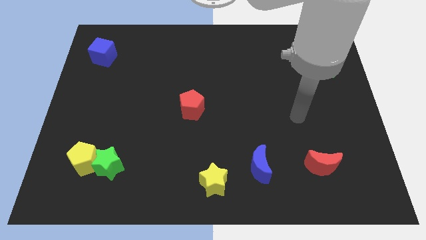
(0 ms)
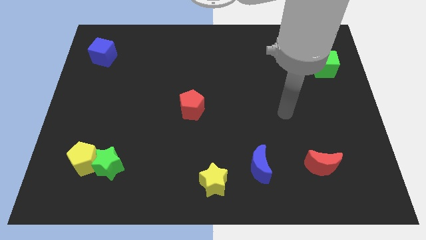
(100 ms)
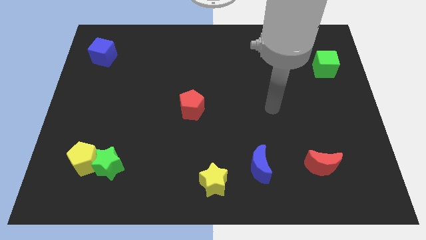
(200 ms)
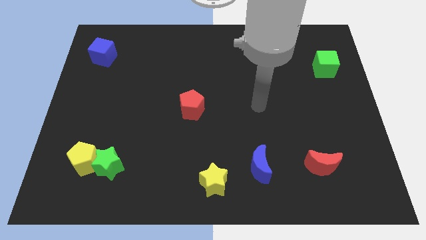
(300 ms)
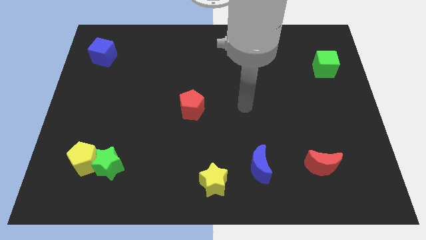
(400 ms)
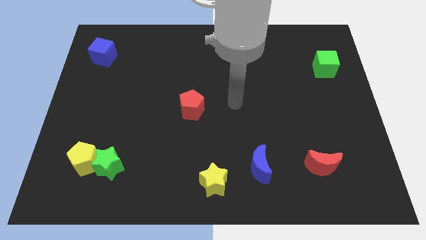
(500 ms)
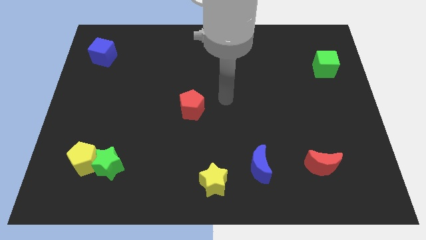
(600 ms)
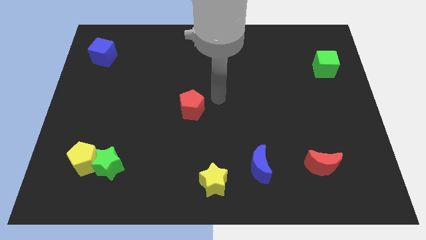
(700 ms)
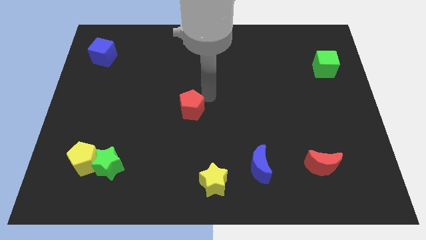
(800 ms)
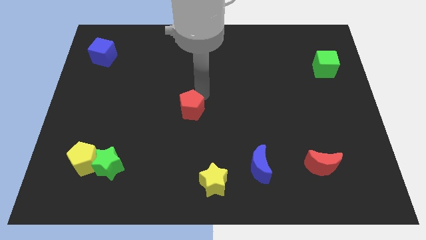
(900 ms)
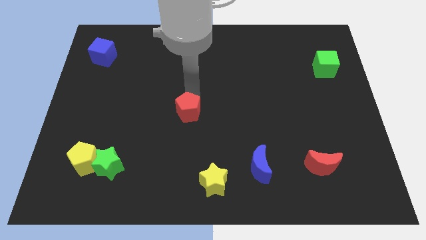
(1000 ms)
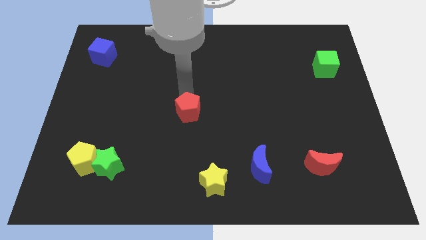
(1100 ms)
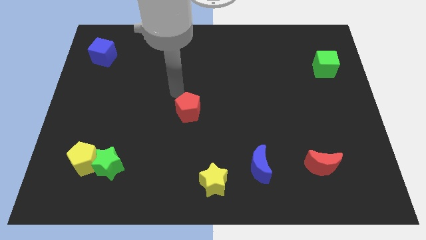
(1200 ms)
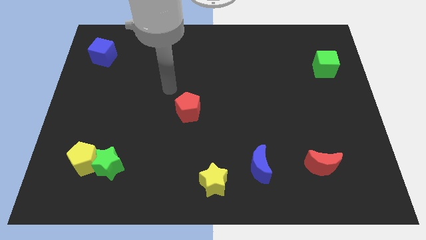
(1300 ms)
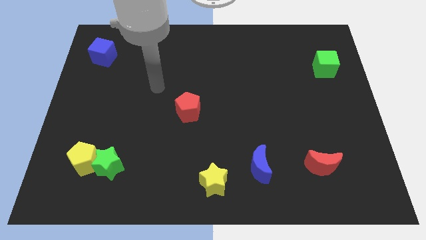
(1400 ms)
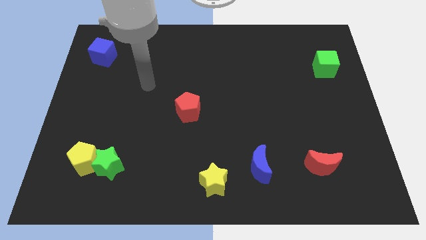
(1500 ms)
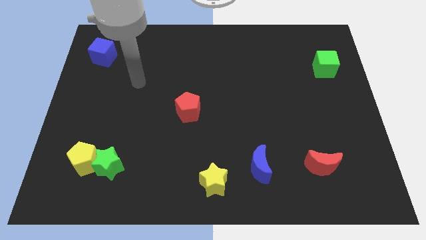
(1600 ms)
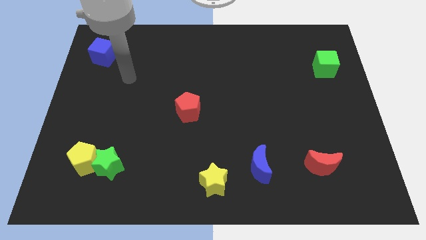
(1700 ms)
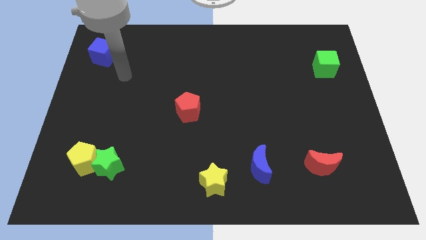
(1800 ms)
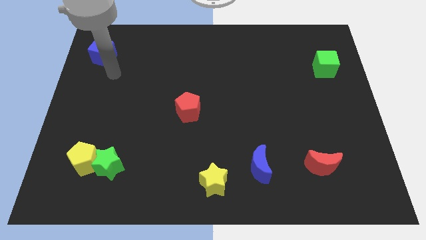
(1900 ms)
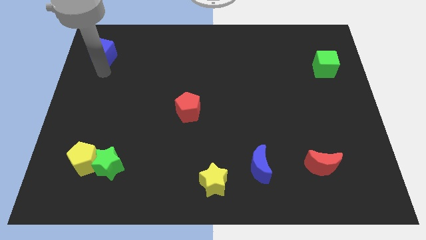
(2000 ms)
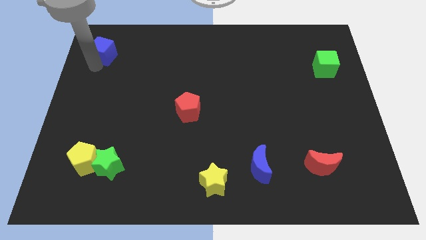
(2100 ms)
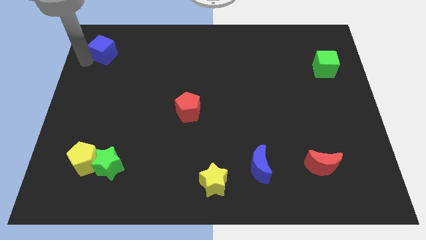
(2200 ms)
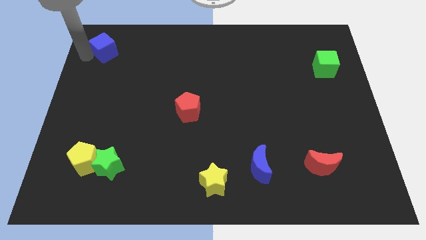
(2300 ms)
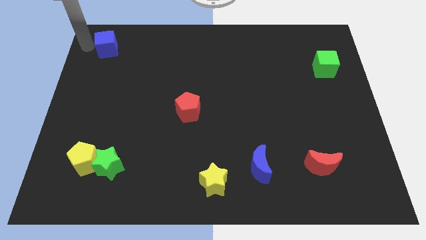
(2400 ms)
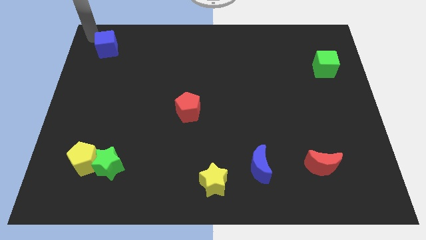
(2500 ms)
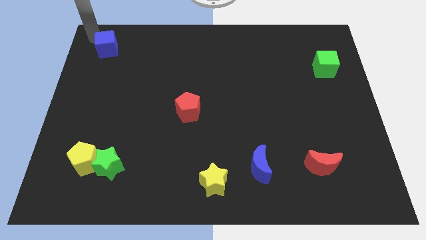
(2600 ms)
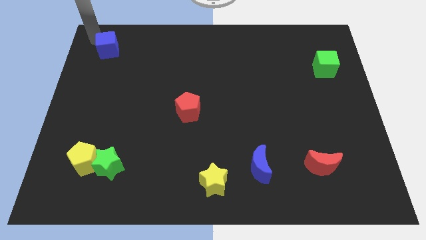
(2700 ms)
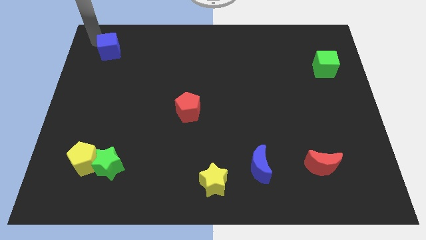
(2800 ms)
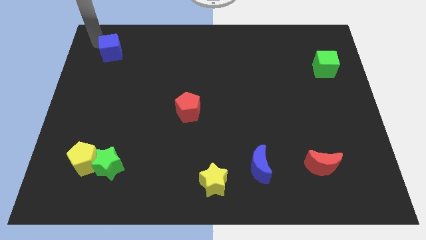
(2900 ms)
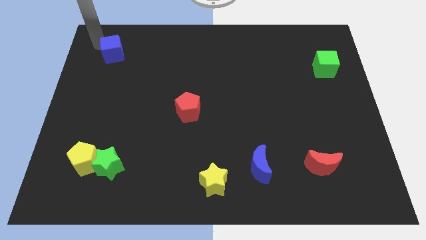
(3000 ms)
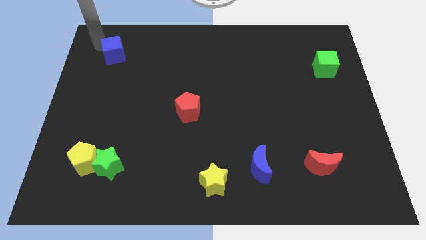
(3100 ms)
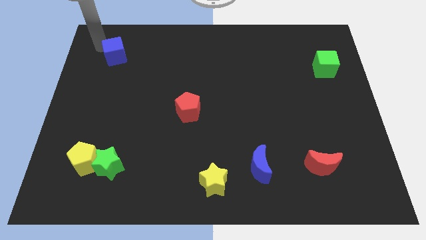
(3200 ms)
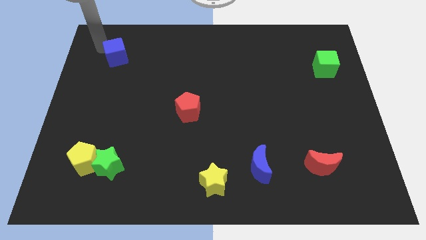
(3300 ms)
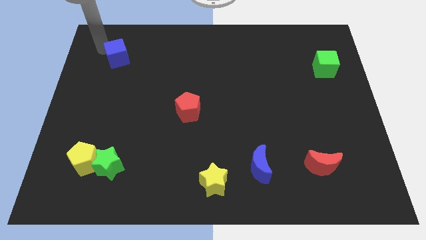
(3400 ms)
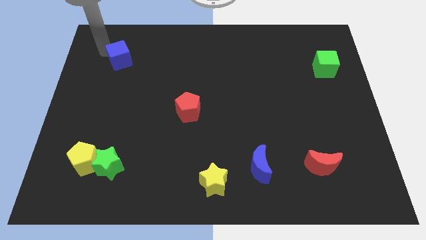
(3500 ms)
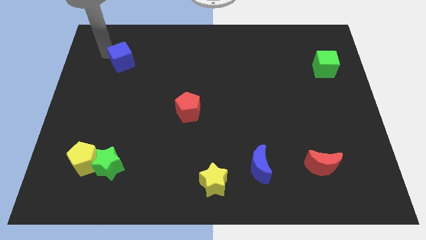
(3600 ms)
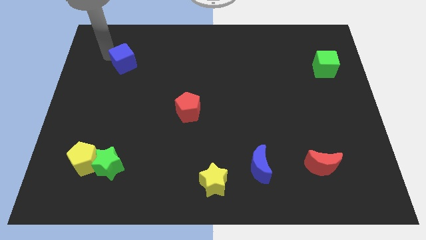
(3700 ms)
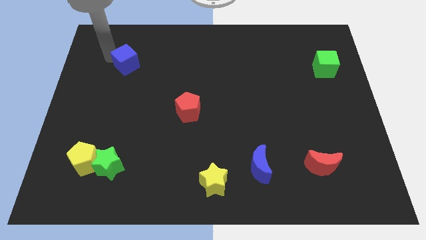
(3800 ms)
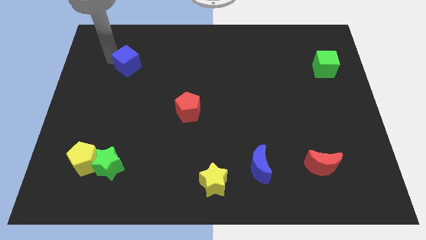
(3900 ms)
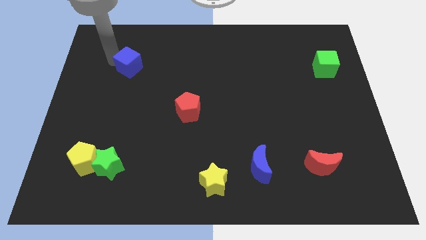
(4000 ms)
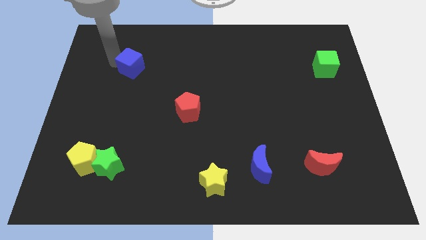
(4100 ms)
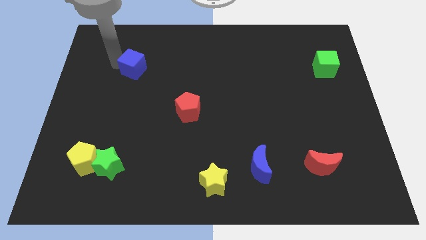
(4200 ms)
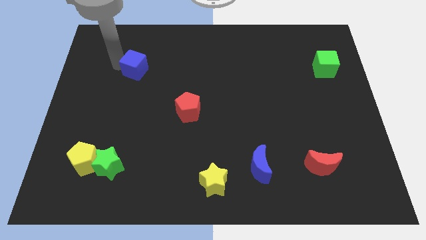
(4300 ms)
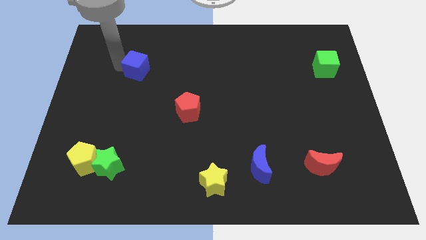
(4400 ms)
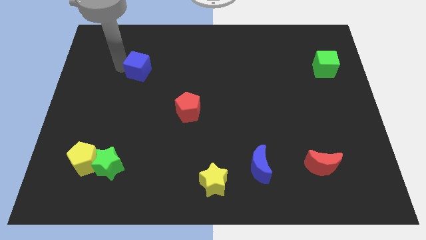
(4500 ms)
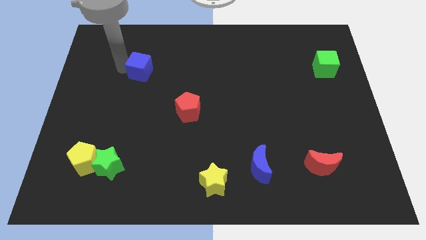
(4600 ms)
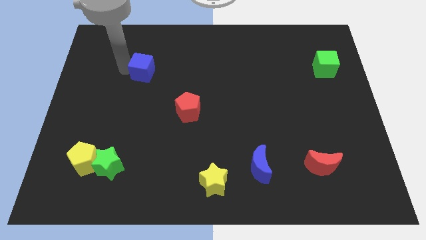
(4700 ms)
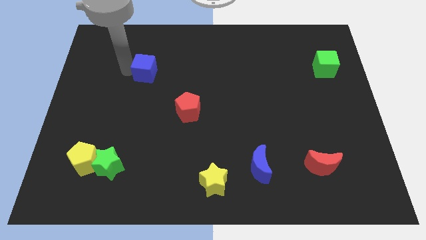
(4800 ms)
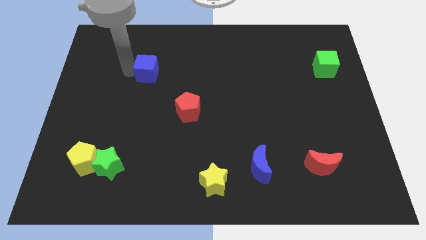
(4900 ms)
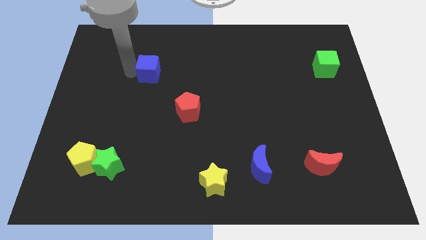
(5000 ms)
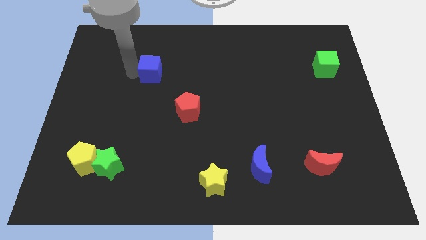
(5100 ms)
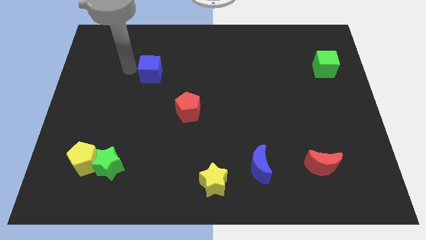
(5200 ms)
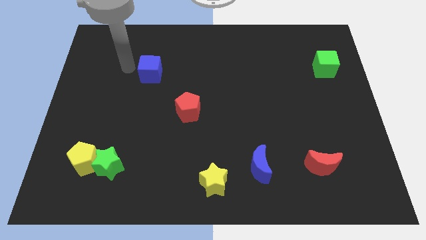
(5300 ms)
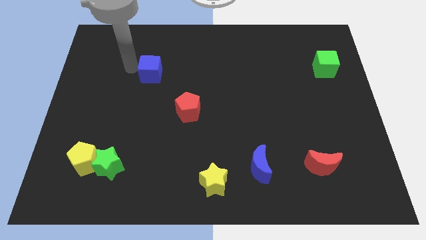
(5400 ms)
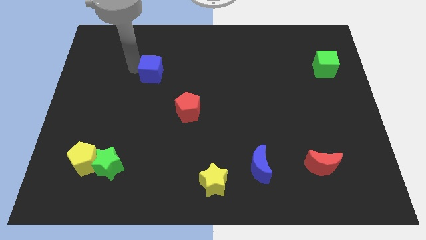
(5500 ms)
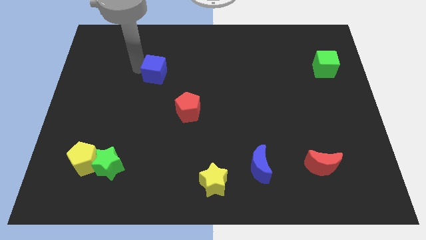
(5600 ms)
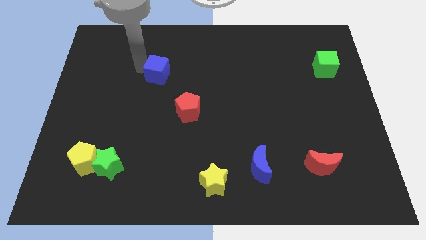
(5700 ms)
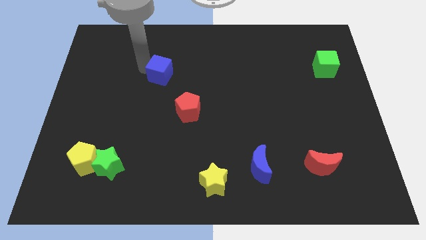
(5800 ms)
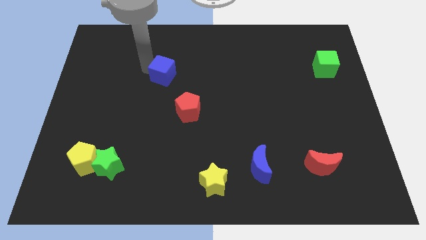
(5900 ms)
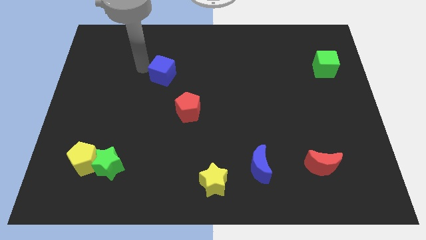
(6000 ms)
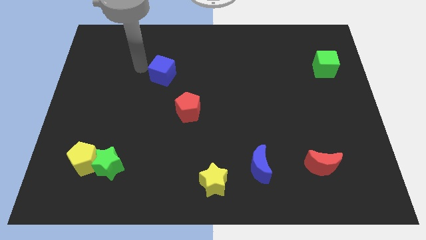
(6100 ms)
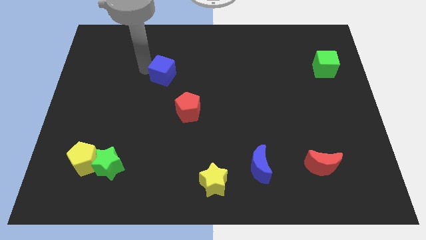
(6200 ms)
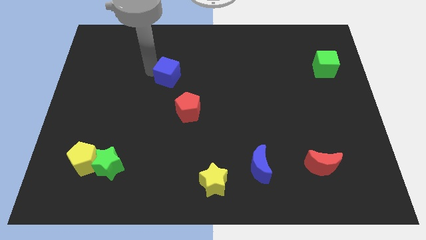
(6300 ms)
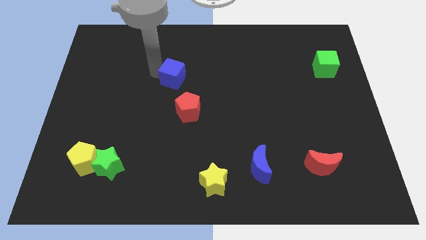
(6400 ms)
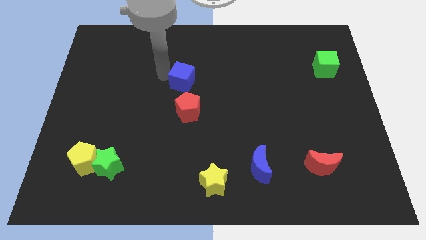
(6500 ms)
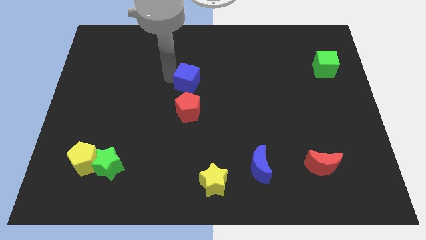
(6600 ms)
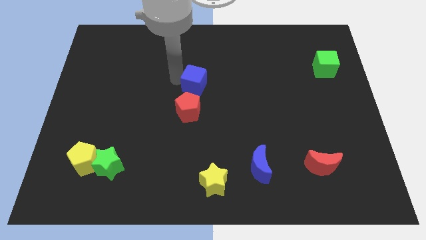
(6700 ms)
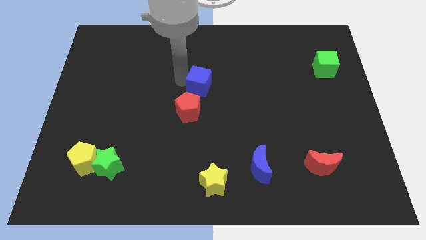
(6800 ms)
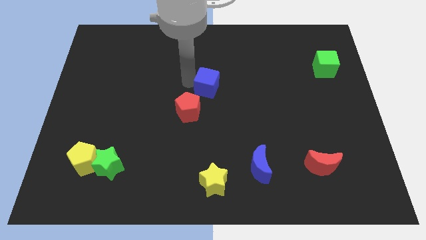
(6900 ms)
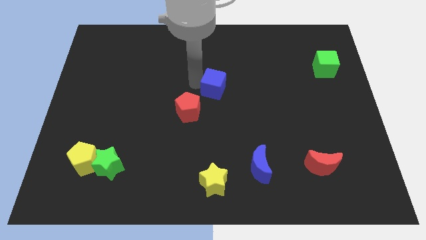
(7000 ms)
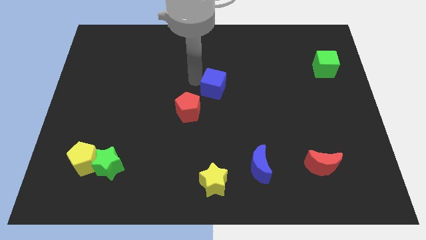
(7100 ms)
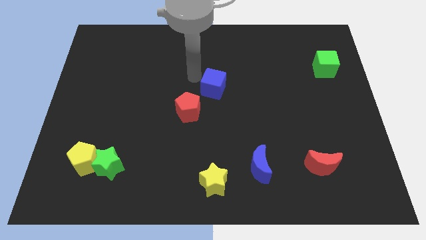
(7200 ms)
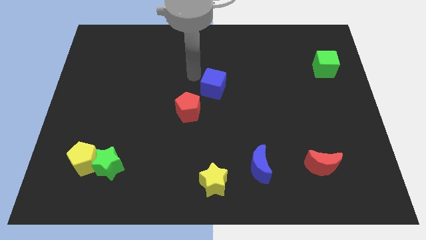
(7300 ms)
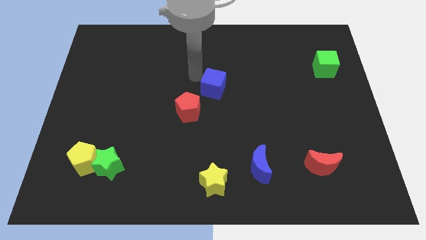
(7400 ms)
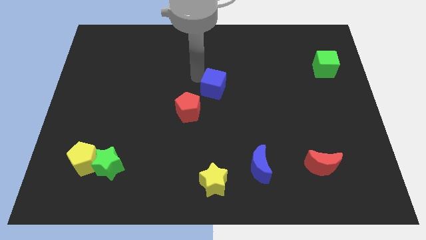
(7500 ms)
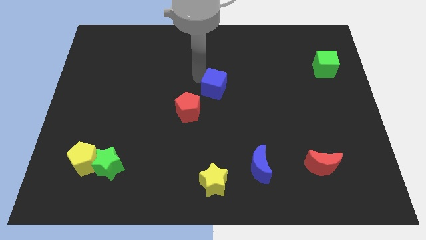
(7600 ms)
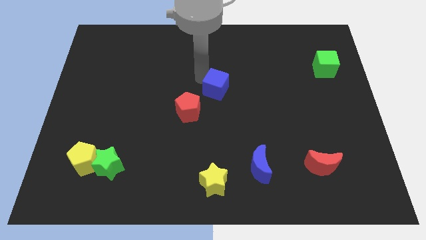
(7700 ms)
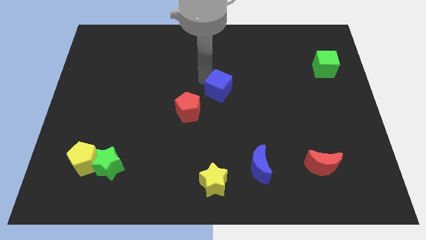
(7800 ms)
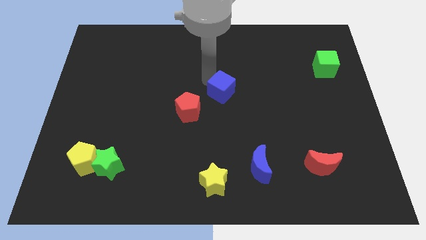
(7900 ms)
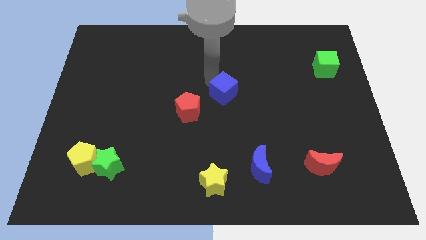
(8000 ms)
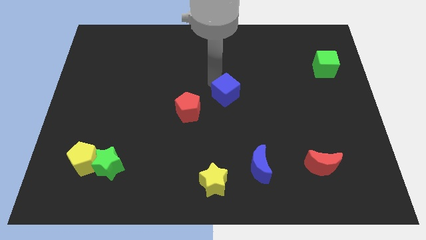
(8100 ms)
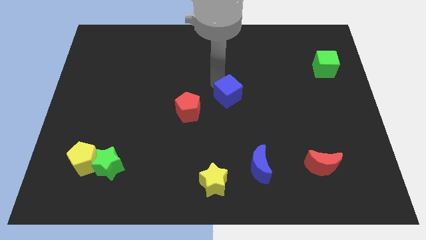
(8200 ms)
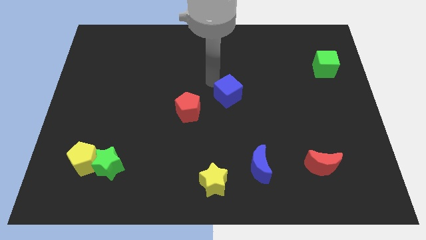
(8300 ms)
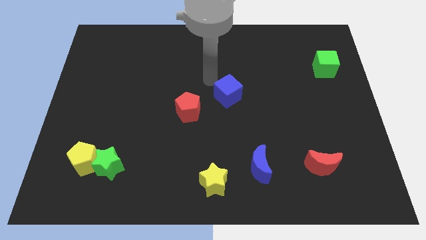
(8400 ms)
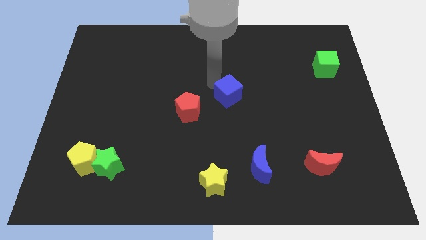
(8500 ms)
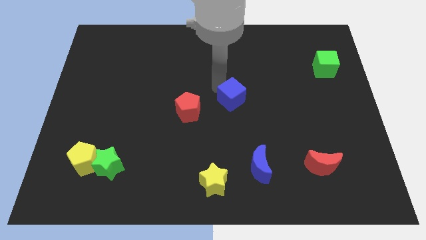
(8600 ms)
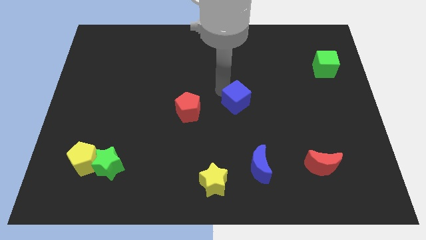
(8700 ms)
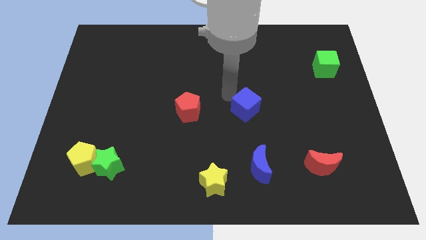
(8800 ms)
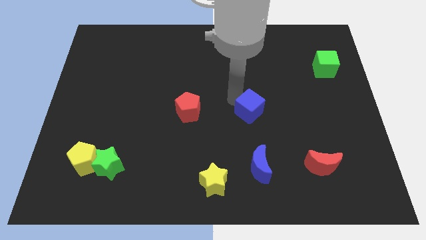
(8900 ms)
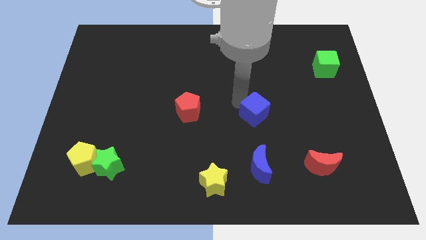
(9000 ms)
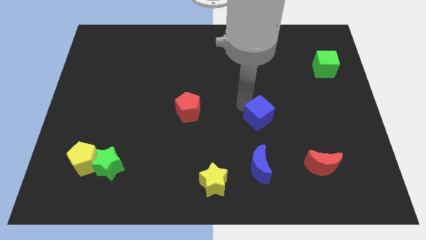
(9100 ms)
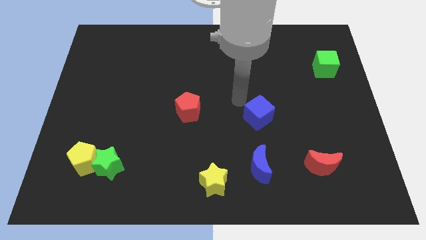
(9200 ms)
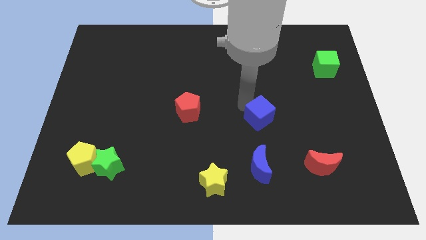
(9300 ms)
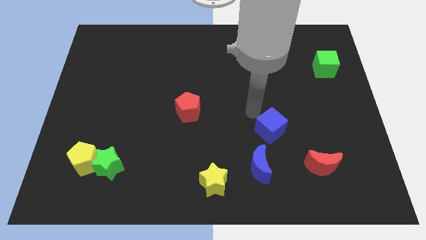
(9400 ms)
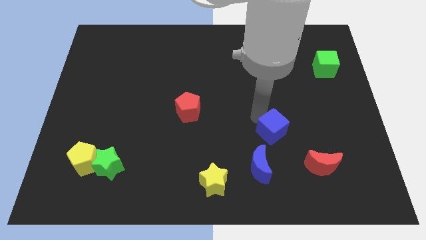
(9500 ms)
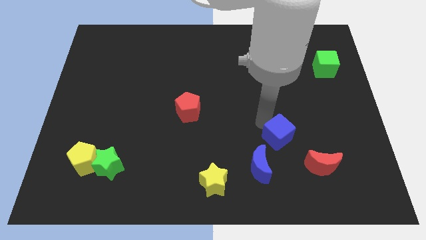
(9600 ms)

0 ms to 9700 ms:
slide the blue cube to the top left of the red moon
